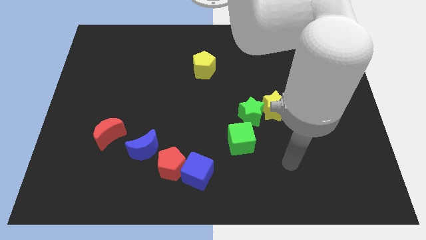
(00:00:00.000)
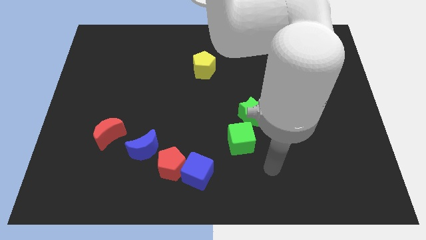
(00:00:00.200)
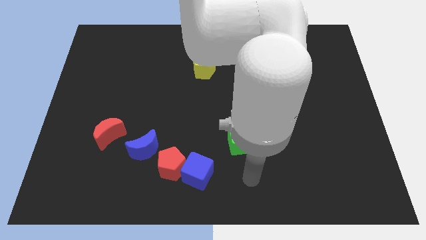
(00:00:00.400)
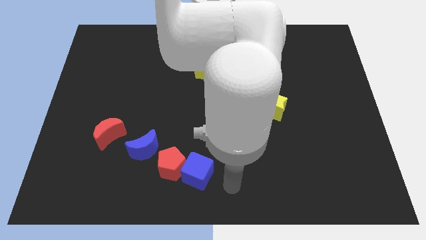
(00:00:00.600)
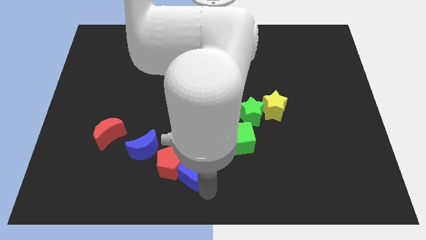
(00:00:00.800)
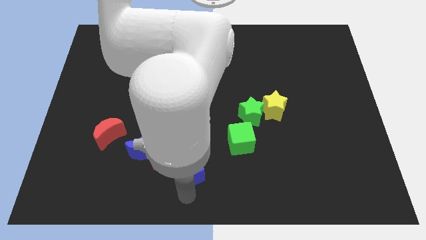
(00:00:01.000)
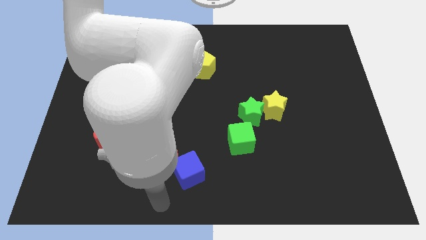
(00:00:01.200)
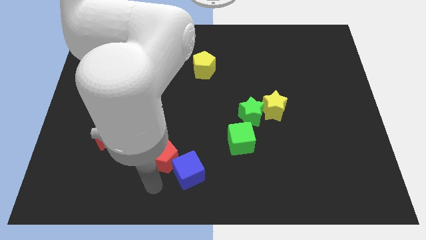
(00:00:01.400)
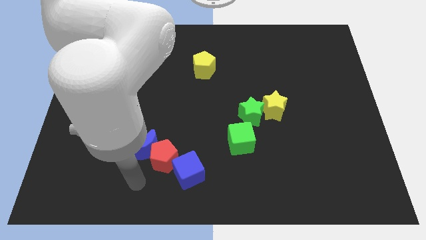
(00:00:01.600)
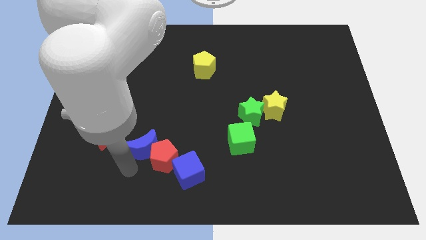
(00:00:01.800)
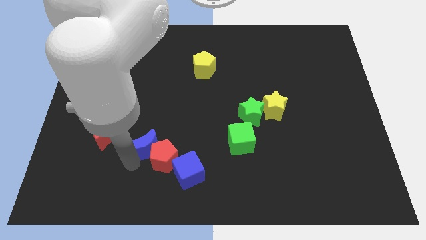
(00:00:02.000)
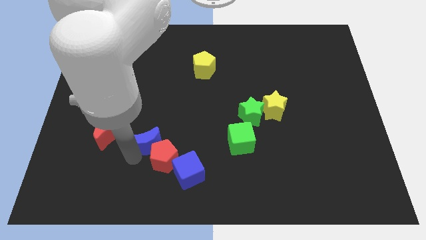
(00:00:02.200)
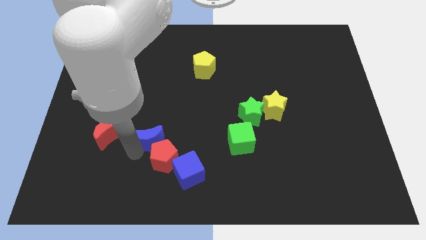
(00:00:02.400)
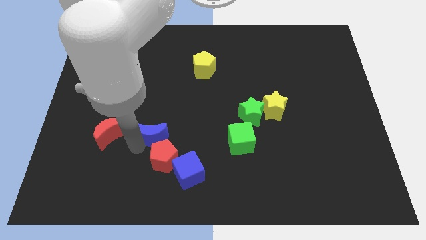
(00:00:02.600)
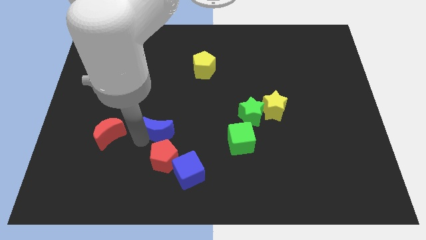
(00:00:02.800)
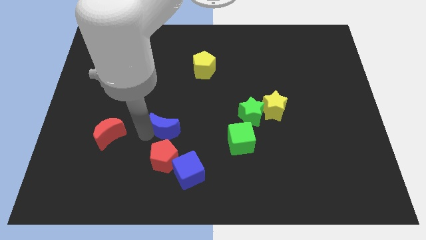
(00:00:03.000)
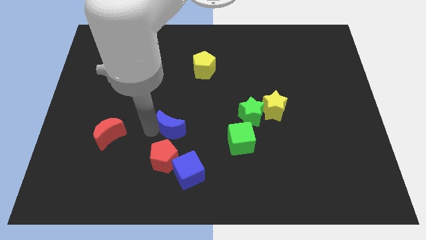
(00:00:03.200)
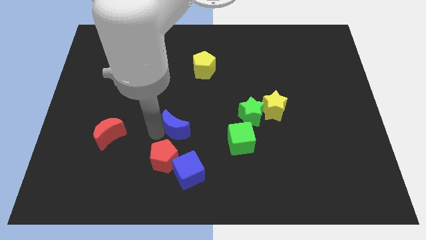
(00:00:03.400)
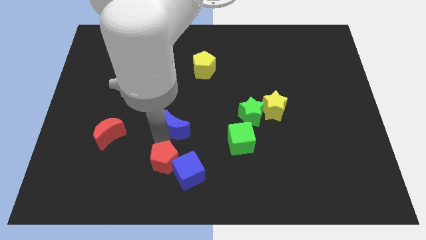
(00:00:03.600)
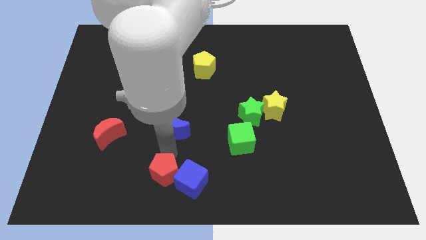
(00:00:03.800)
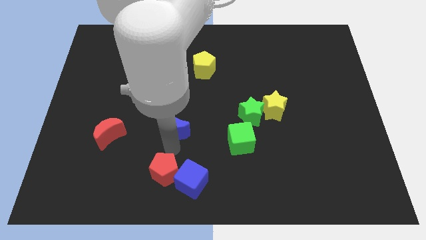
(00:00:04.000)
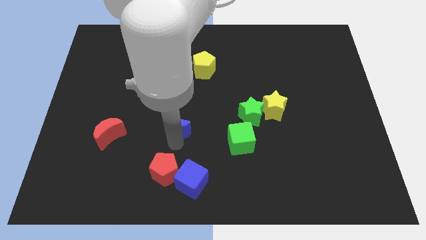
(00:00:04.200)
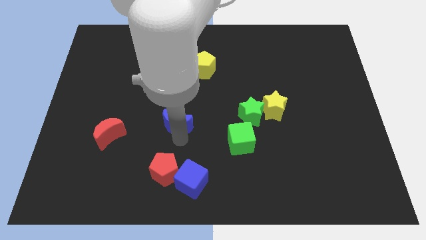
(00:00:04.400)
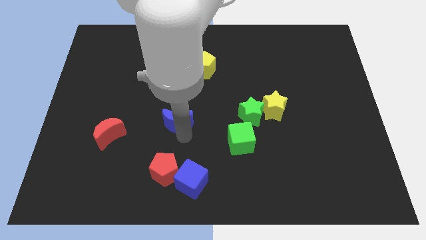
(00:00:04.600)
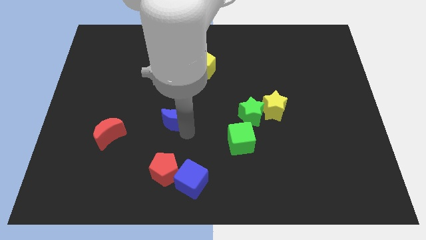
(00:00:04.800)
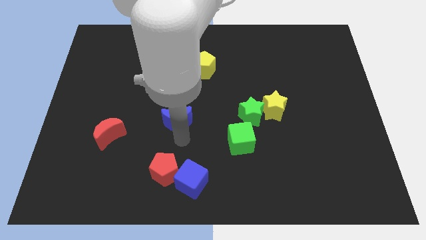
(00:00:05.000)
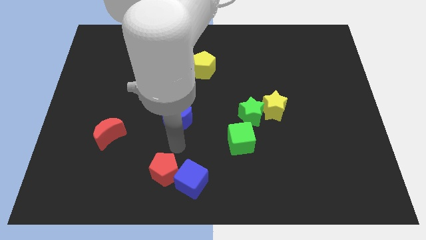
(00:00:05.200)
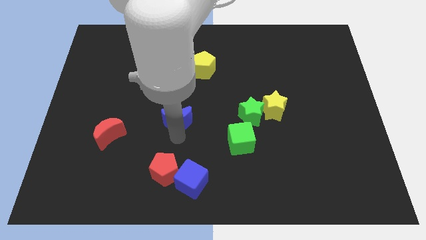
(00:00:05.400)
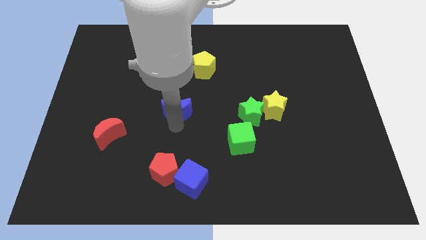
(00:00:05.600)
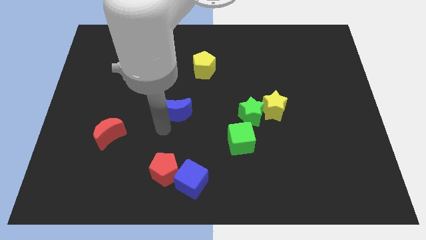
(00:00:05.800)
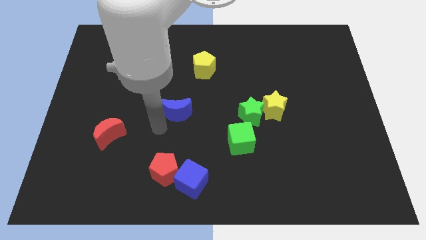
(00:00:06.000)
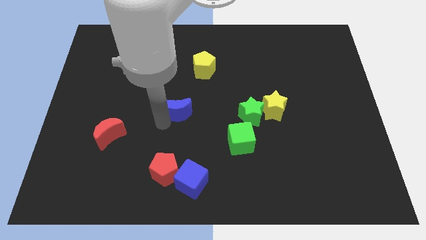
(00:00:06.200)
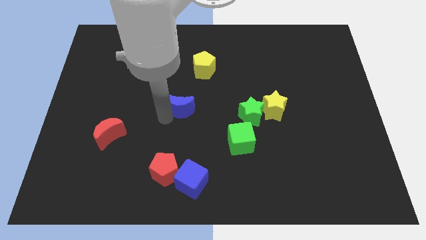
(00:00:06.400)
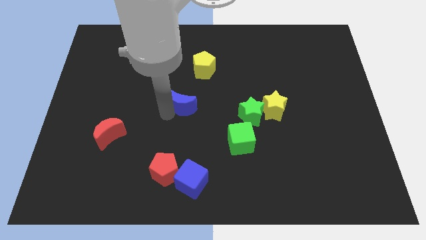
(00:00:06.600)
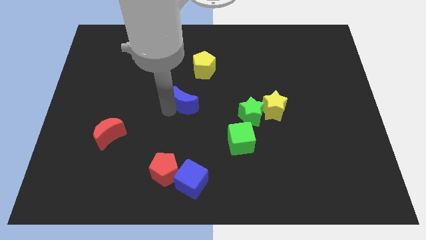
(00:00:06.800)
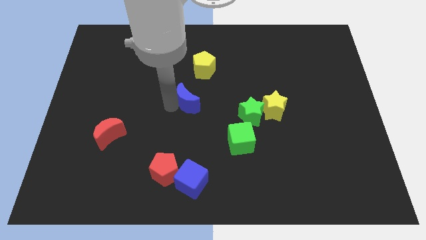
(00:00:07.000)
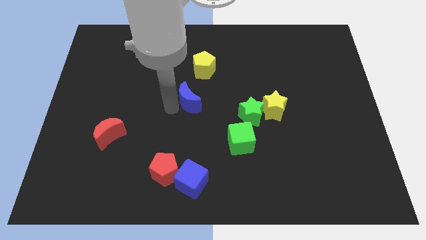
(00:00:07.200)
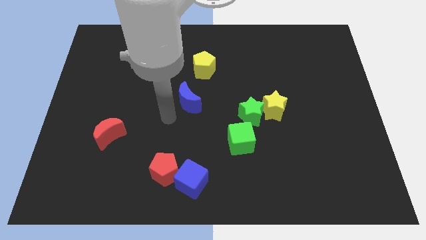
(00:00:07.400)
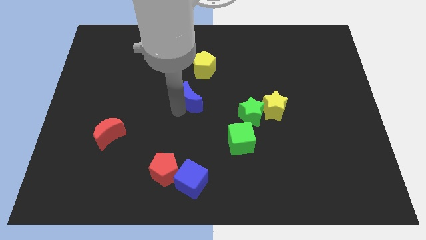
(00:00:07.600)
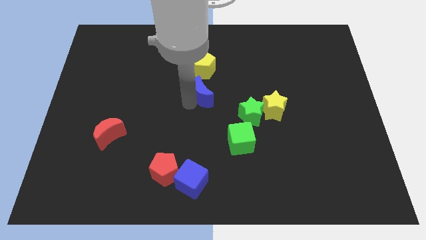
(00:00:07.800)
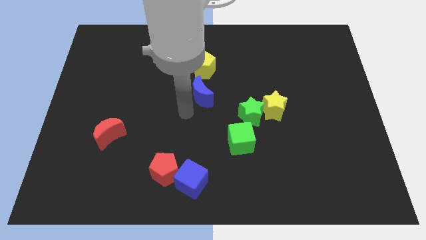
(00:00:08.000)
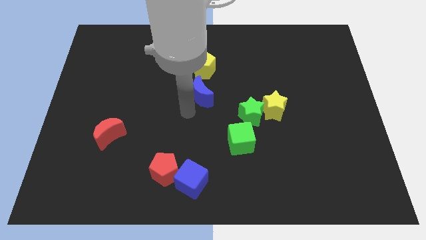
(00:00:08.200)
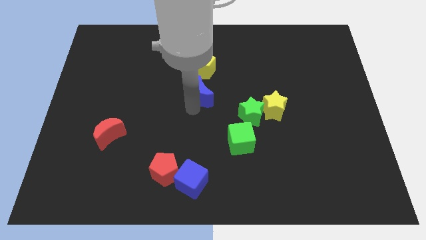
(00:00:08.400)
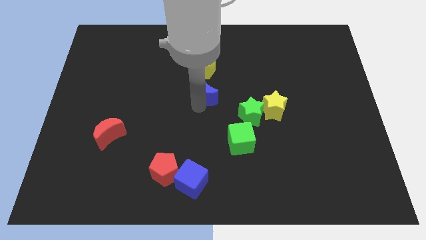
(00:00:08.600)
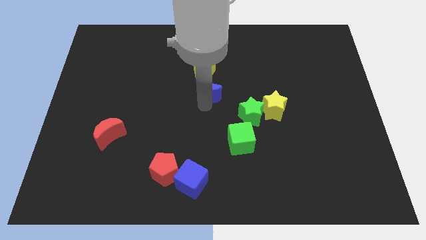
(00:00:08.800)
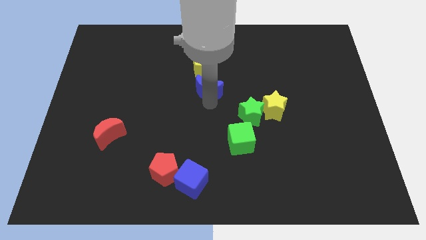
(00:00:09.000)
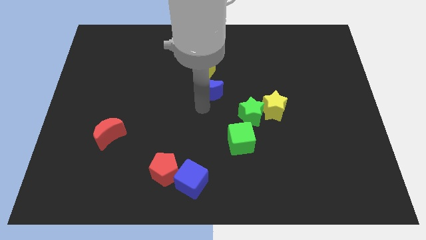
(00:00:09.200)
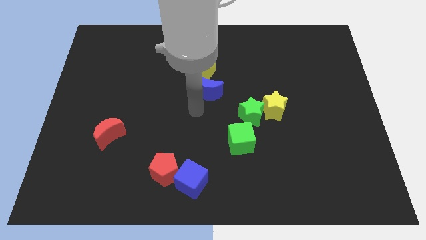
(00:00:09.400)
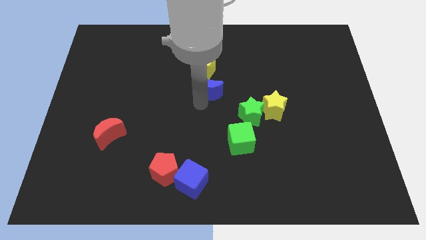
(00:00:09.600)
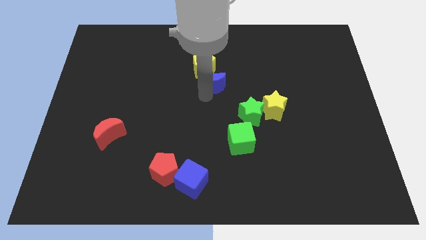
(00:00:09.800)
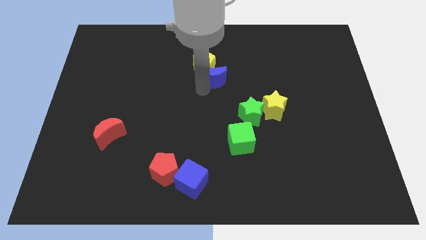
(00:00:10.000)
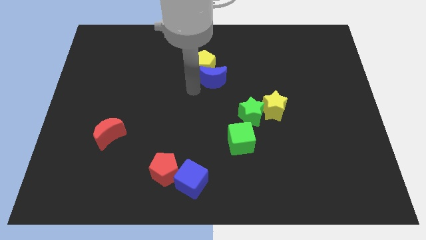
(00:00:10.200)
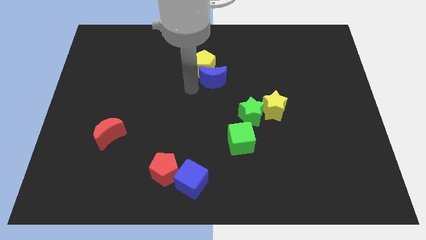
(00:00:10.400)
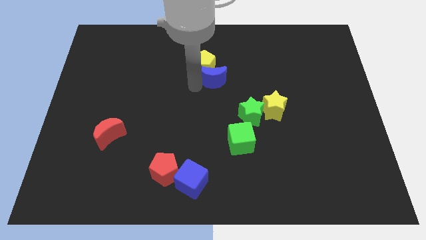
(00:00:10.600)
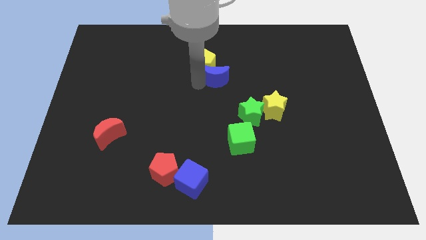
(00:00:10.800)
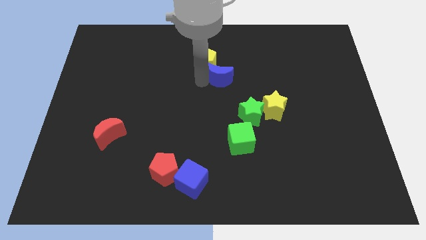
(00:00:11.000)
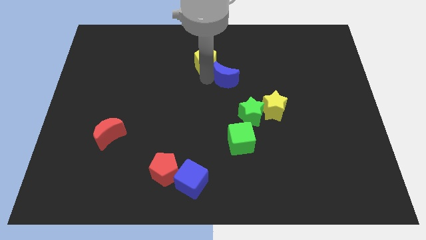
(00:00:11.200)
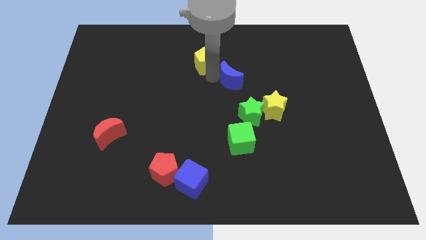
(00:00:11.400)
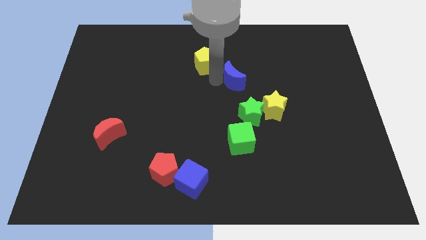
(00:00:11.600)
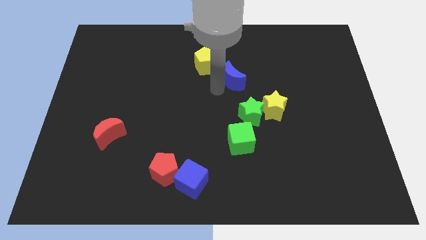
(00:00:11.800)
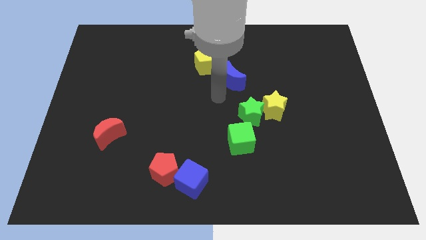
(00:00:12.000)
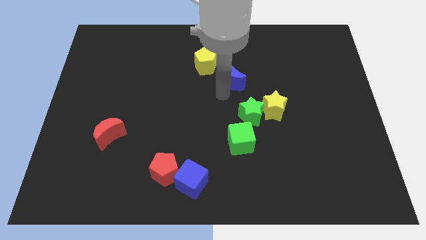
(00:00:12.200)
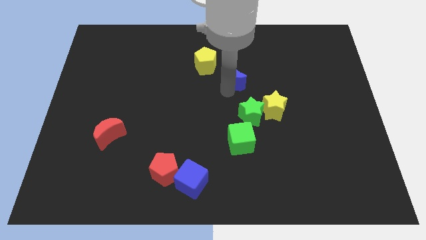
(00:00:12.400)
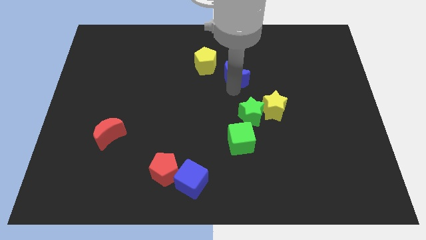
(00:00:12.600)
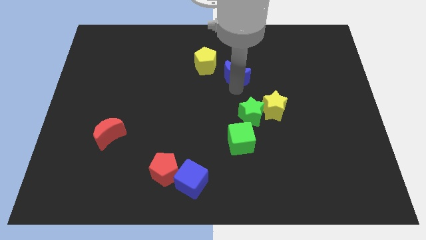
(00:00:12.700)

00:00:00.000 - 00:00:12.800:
put the blue moon just right of the yellow pentagon
